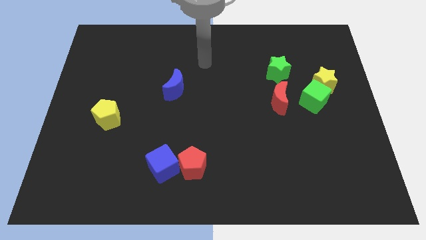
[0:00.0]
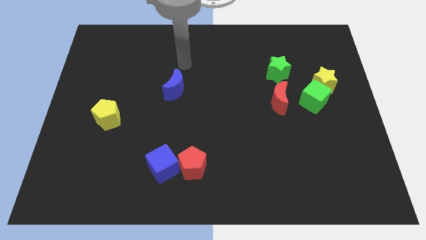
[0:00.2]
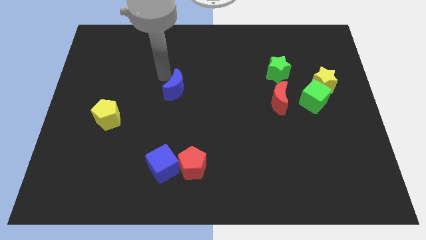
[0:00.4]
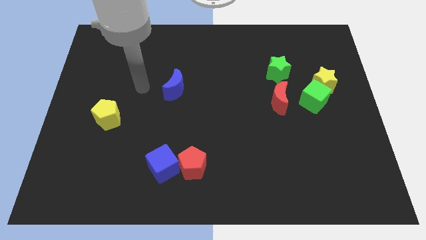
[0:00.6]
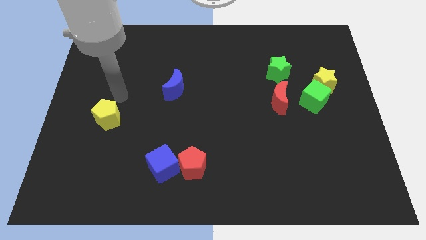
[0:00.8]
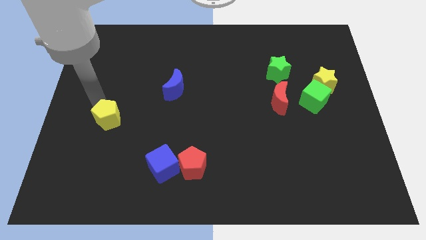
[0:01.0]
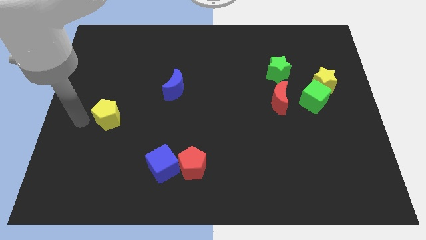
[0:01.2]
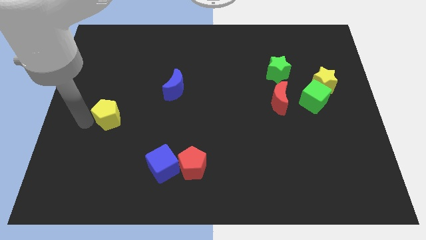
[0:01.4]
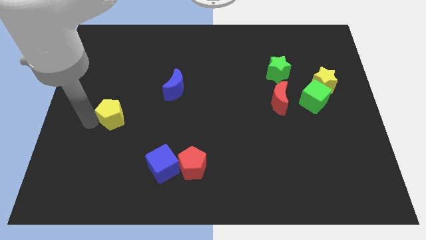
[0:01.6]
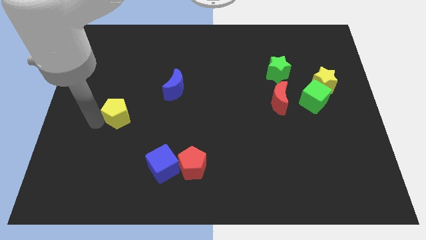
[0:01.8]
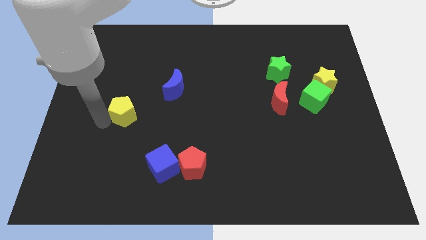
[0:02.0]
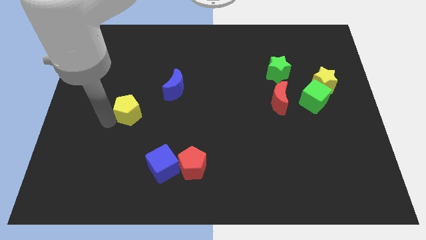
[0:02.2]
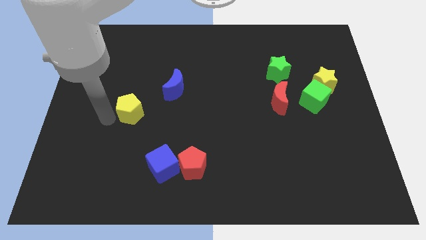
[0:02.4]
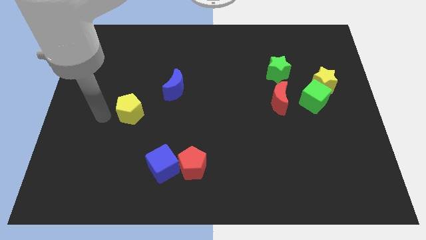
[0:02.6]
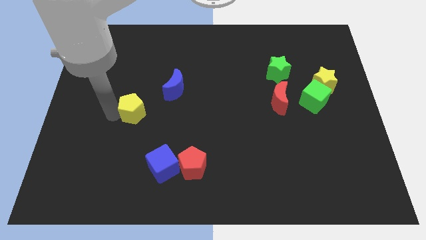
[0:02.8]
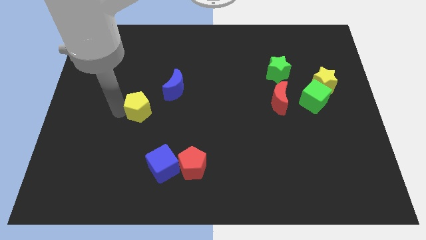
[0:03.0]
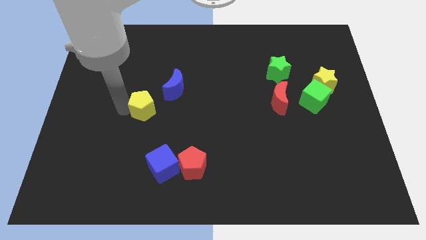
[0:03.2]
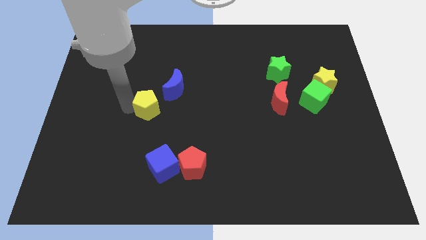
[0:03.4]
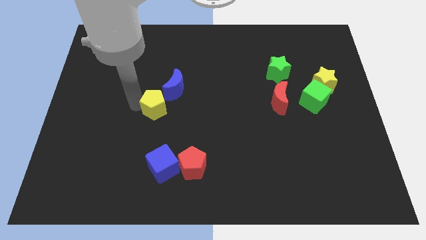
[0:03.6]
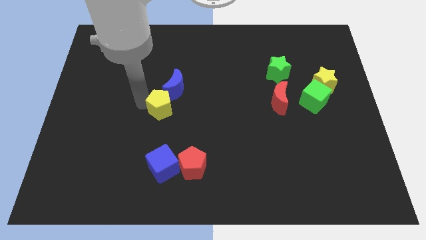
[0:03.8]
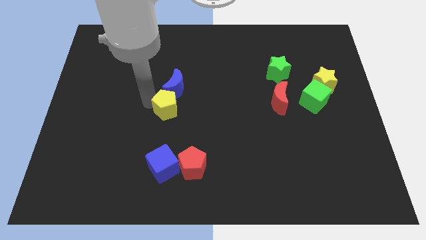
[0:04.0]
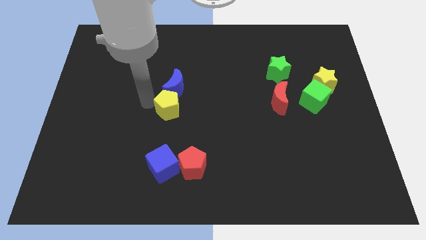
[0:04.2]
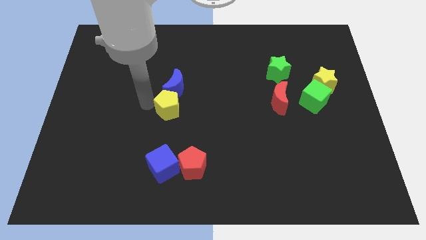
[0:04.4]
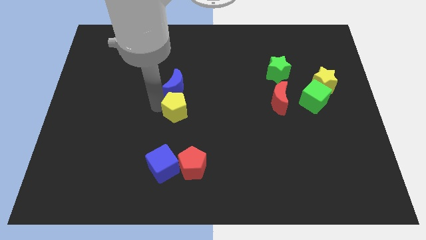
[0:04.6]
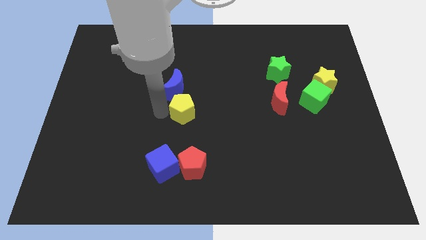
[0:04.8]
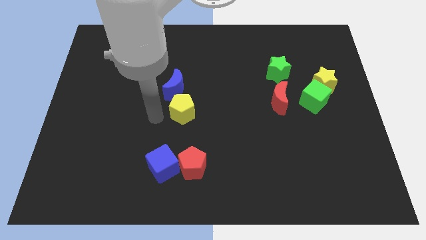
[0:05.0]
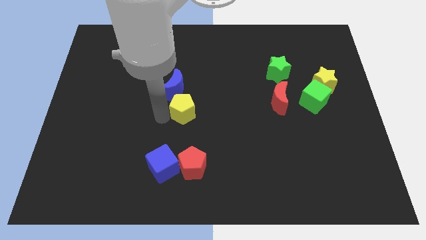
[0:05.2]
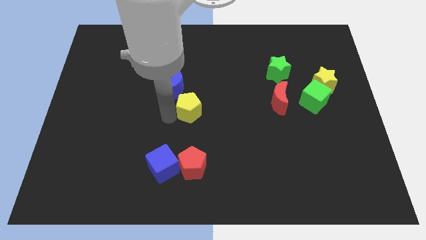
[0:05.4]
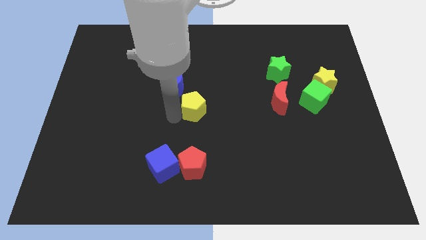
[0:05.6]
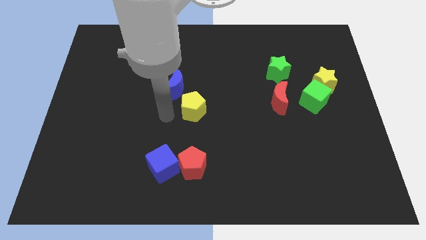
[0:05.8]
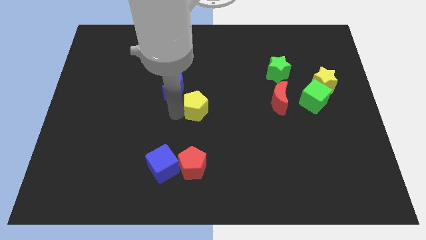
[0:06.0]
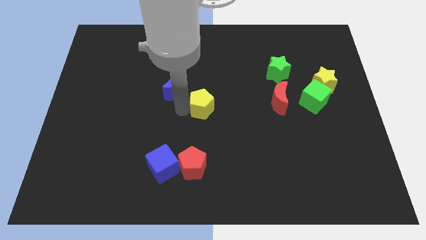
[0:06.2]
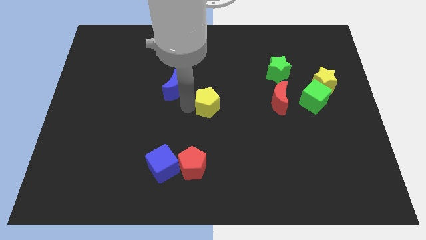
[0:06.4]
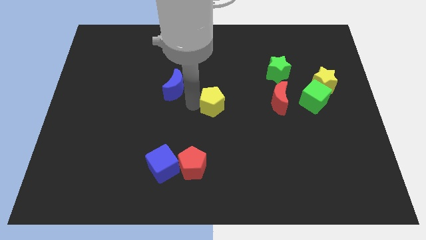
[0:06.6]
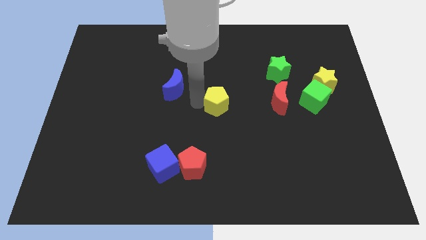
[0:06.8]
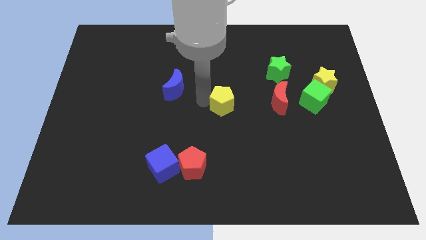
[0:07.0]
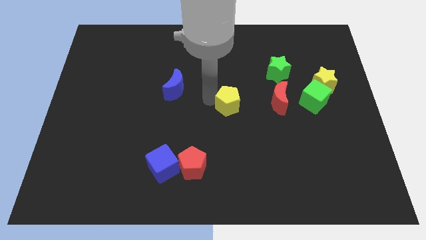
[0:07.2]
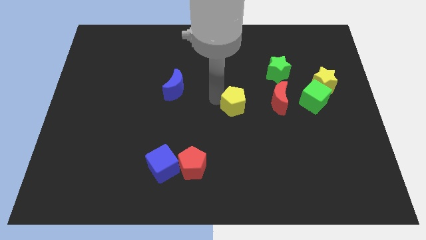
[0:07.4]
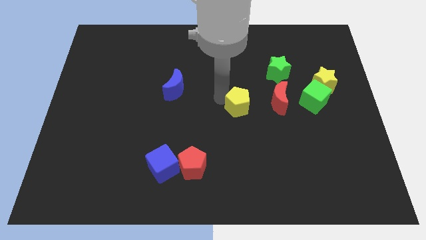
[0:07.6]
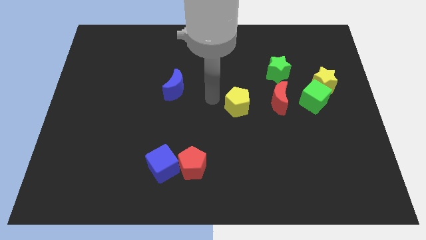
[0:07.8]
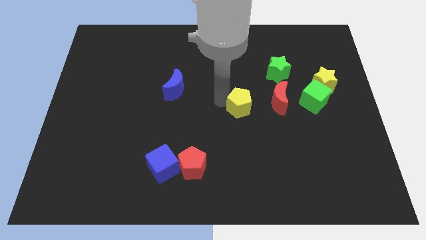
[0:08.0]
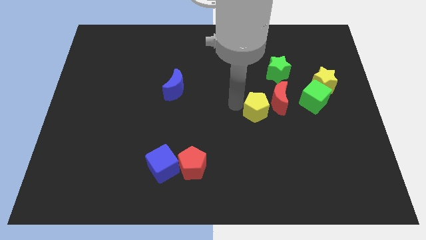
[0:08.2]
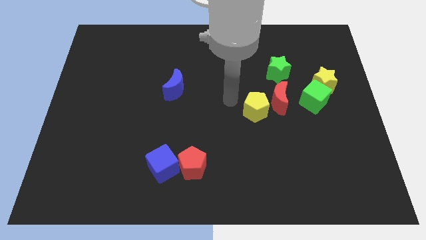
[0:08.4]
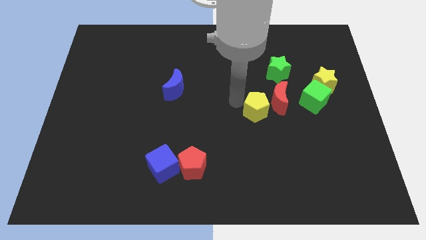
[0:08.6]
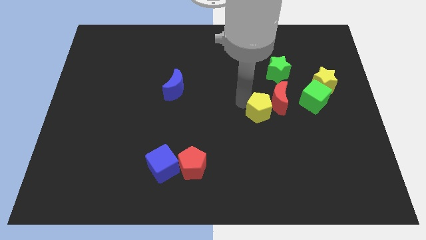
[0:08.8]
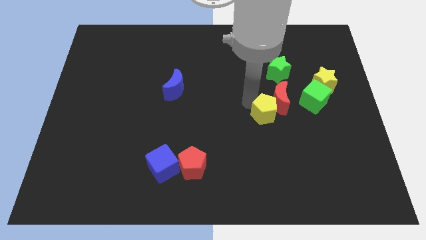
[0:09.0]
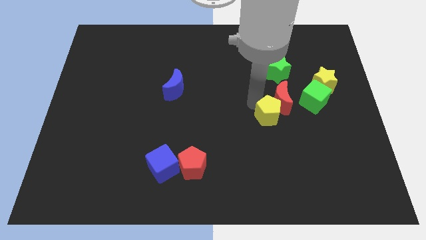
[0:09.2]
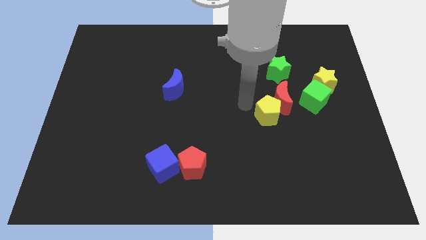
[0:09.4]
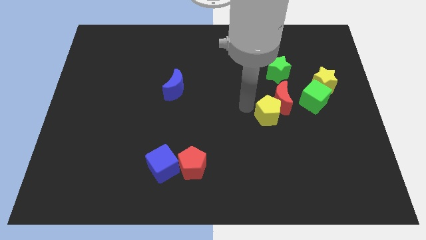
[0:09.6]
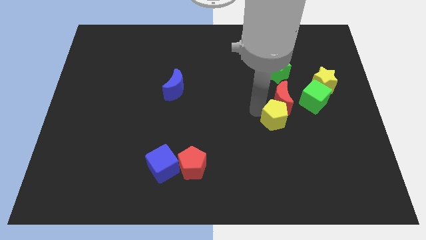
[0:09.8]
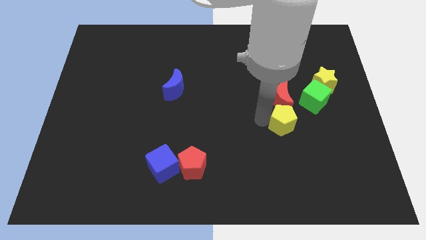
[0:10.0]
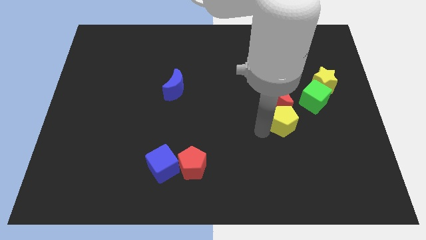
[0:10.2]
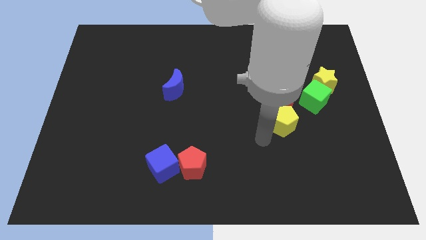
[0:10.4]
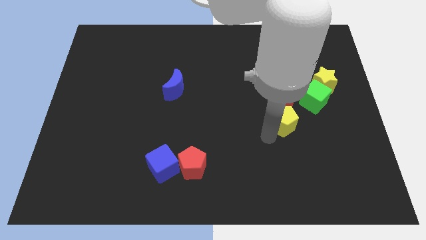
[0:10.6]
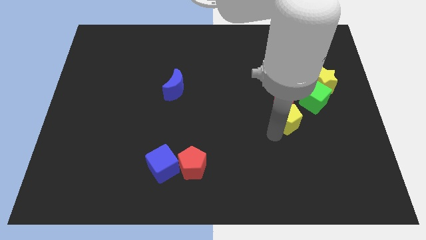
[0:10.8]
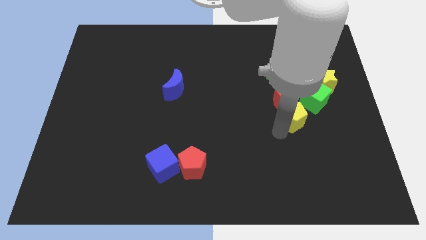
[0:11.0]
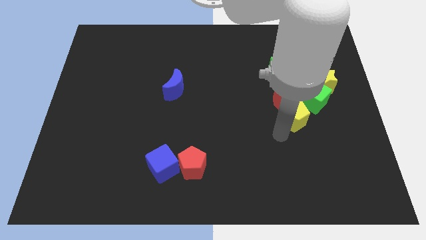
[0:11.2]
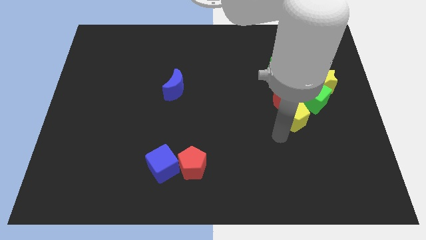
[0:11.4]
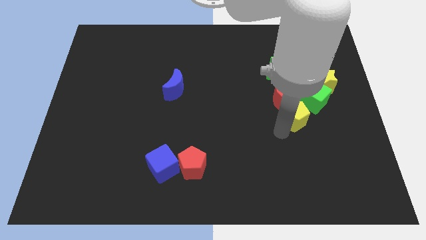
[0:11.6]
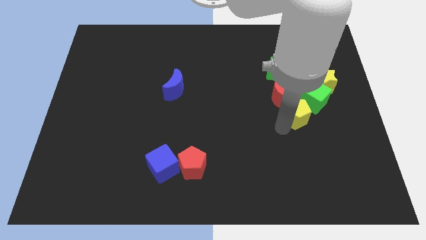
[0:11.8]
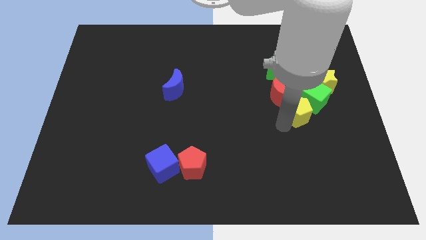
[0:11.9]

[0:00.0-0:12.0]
push the yellow pentagon next to the green cube
